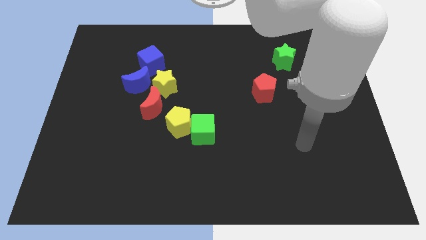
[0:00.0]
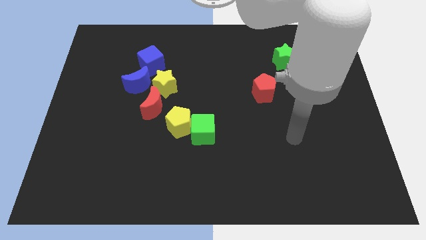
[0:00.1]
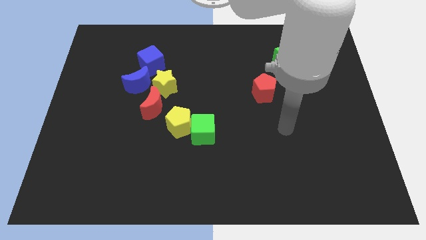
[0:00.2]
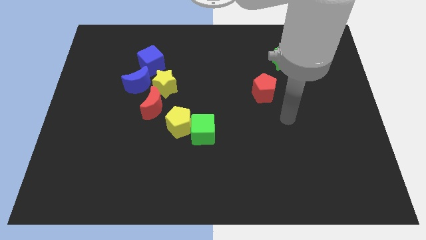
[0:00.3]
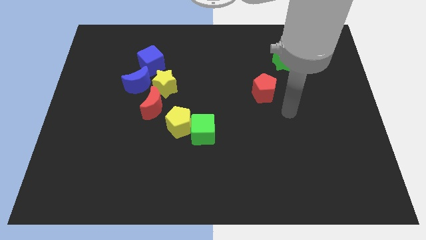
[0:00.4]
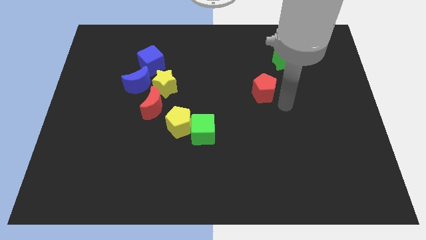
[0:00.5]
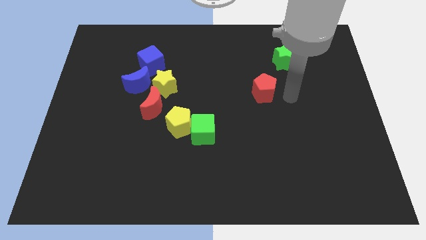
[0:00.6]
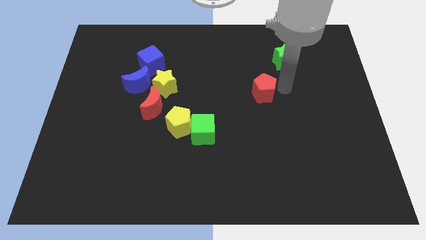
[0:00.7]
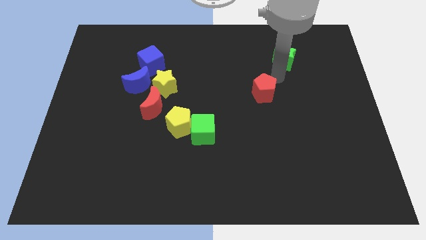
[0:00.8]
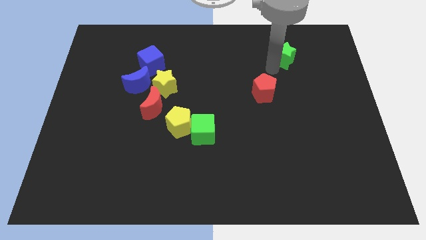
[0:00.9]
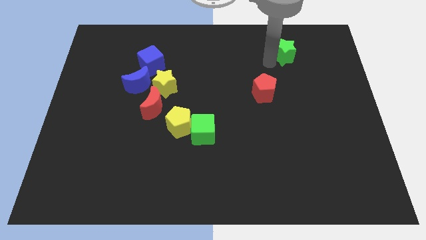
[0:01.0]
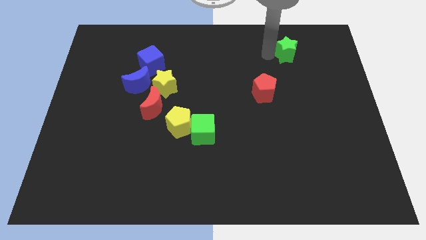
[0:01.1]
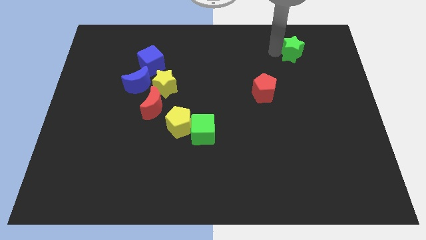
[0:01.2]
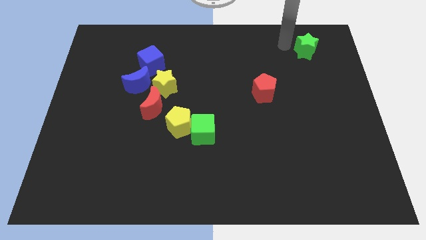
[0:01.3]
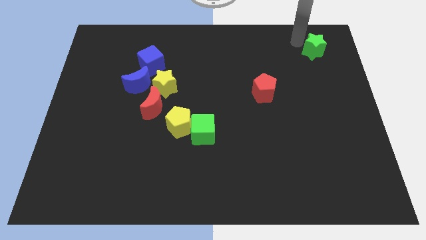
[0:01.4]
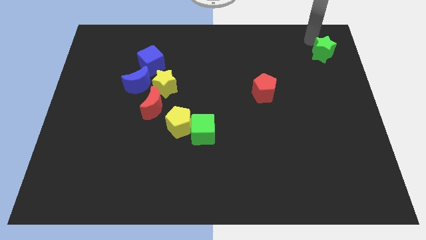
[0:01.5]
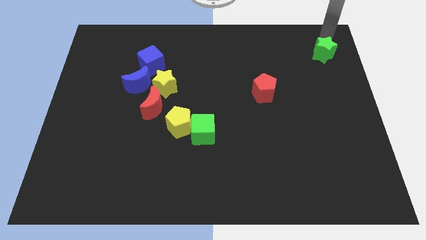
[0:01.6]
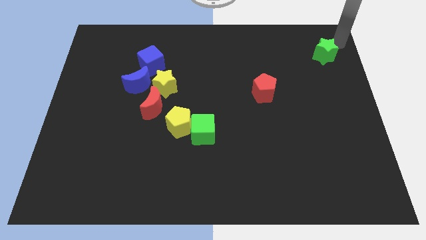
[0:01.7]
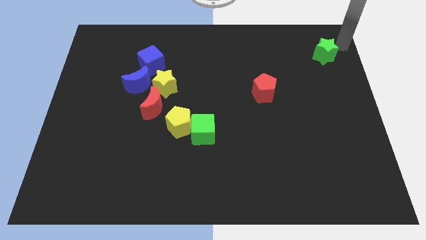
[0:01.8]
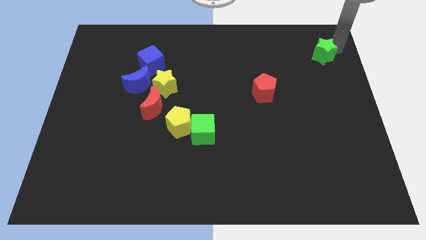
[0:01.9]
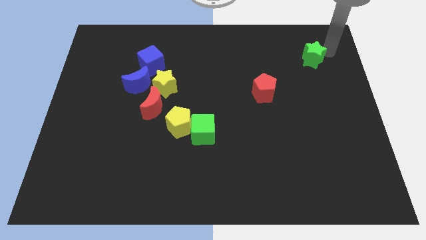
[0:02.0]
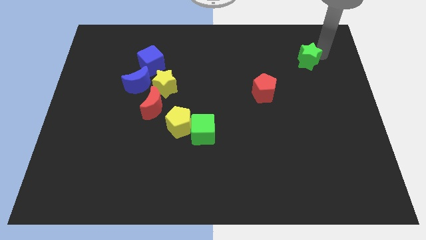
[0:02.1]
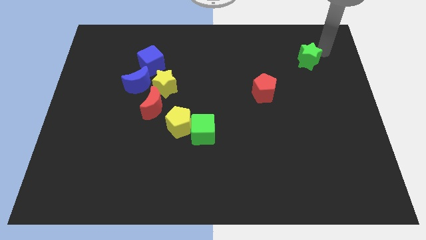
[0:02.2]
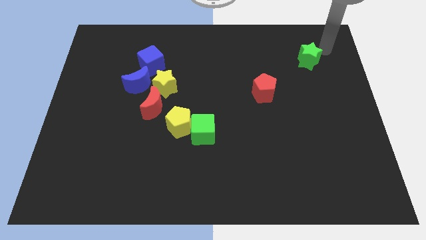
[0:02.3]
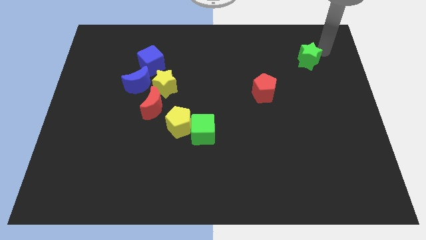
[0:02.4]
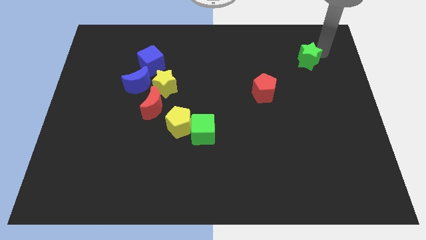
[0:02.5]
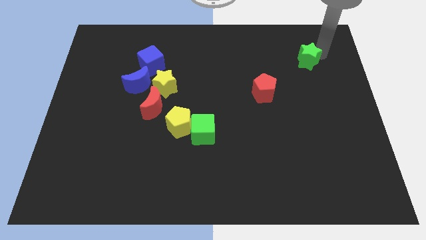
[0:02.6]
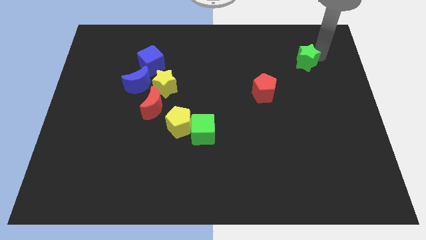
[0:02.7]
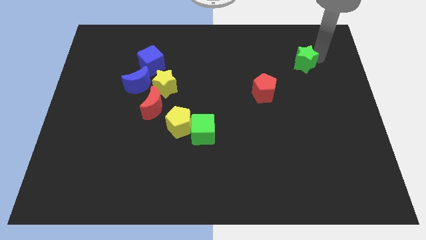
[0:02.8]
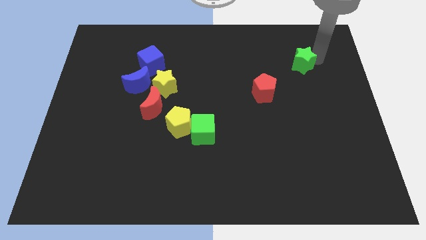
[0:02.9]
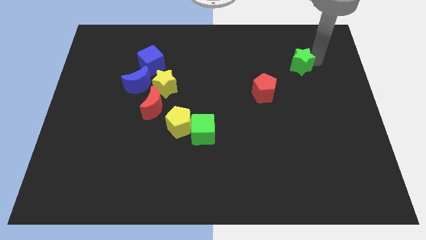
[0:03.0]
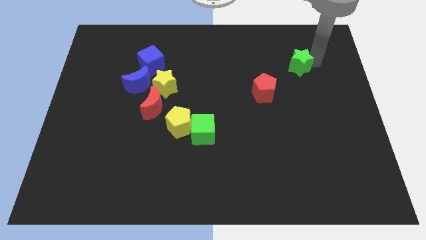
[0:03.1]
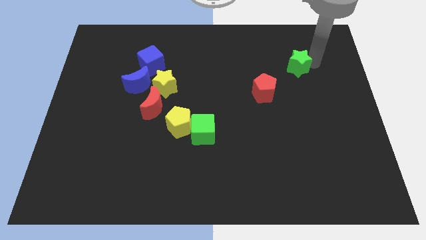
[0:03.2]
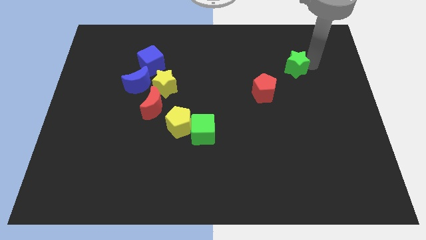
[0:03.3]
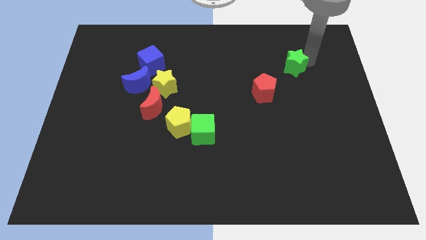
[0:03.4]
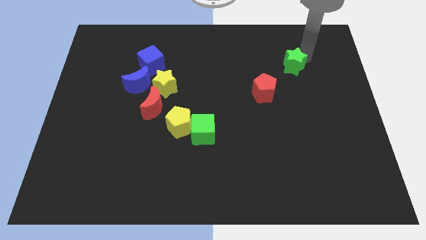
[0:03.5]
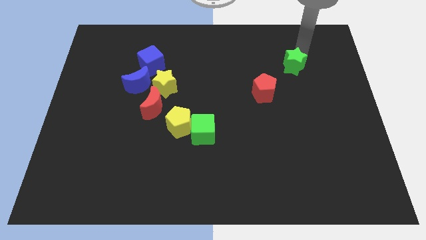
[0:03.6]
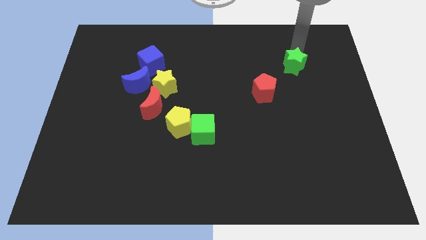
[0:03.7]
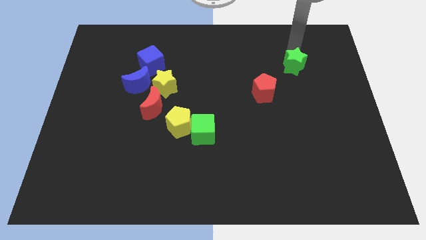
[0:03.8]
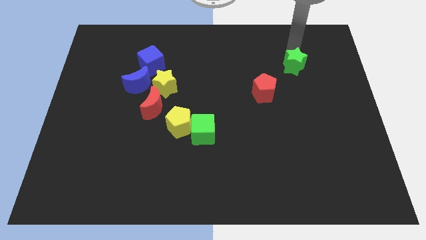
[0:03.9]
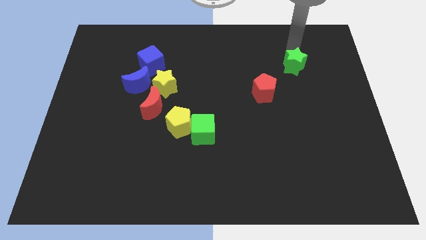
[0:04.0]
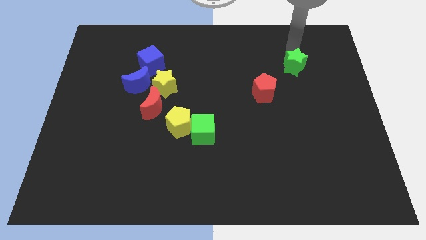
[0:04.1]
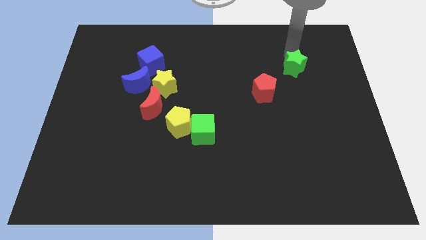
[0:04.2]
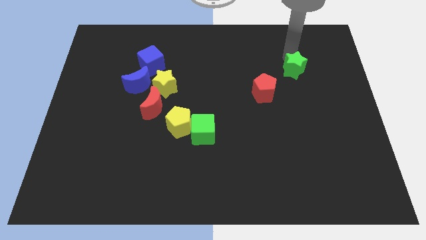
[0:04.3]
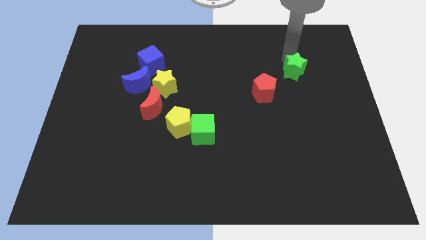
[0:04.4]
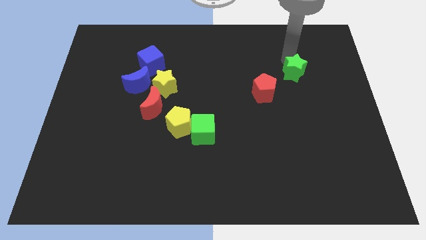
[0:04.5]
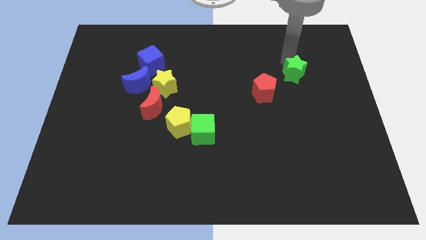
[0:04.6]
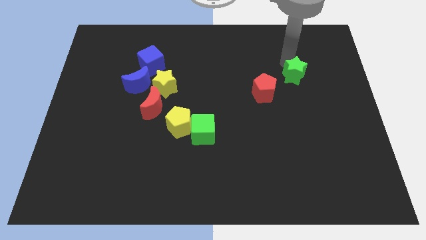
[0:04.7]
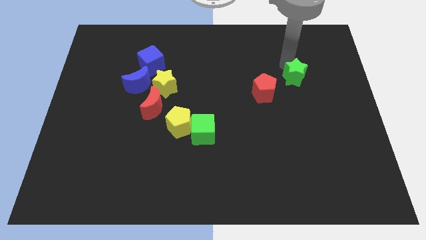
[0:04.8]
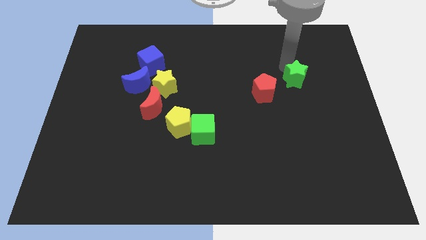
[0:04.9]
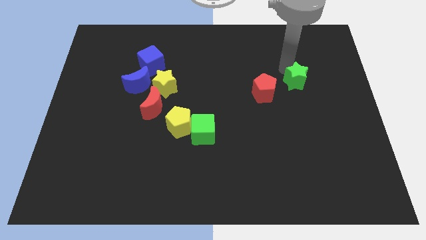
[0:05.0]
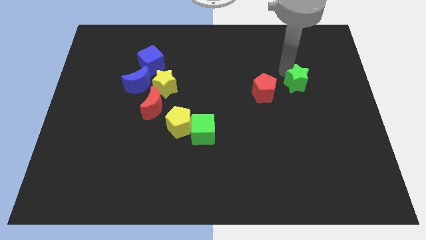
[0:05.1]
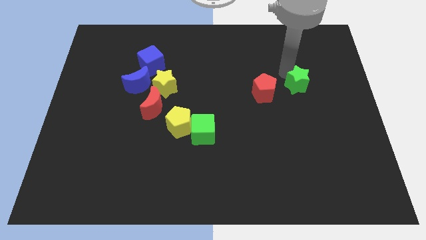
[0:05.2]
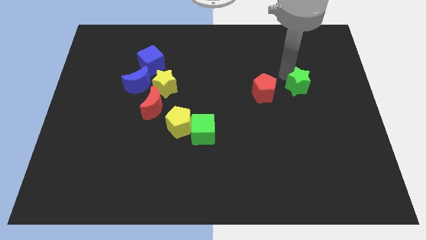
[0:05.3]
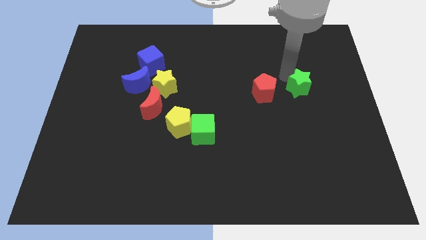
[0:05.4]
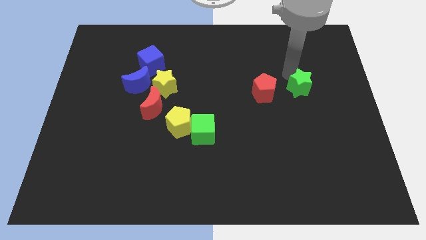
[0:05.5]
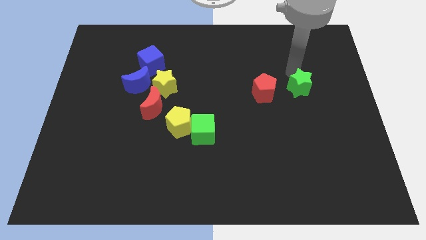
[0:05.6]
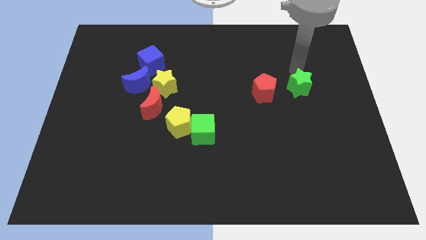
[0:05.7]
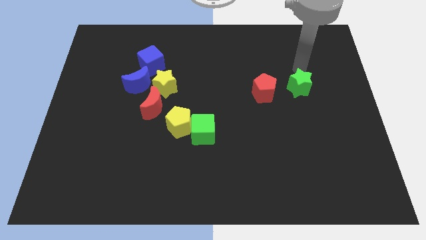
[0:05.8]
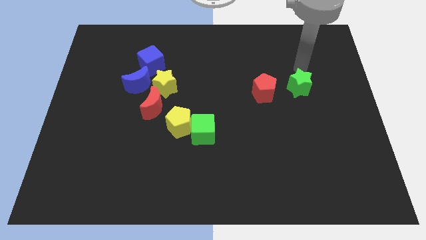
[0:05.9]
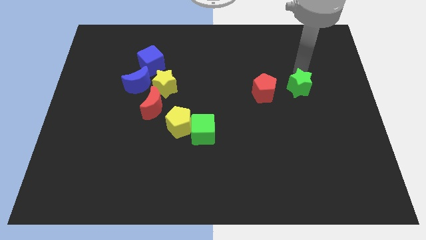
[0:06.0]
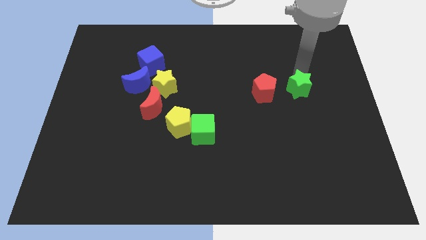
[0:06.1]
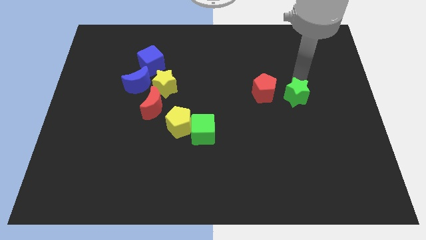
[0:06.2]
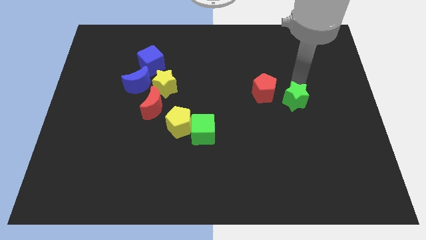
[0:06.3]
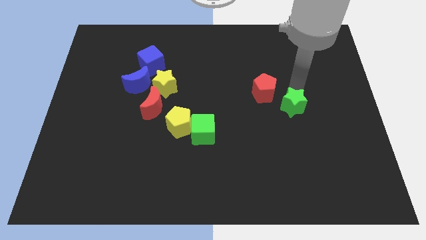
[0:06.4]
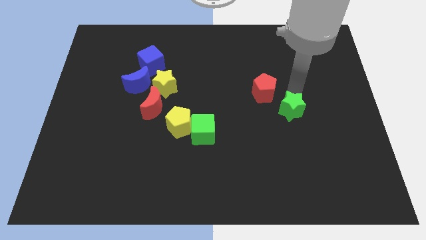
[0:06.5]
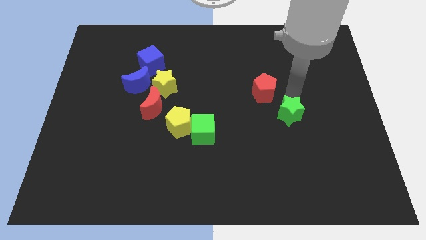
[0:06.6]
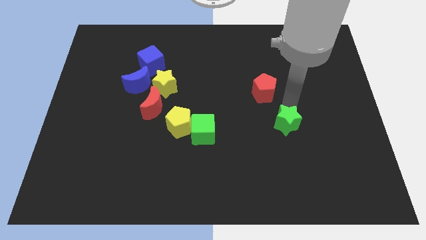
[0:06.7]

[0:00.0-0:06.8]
push the green star down

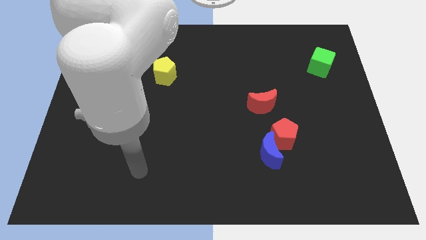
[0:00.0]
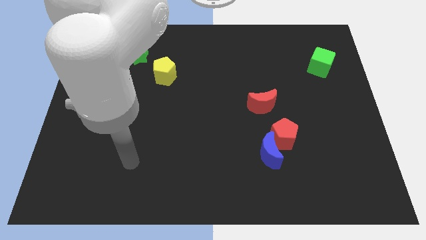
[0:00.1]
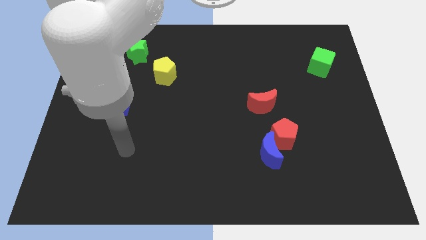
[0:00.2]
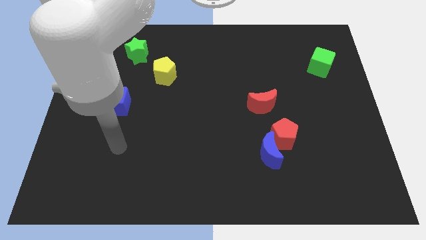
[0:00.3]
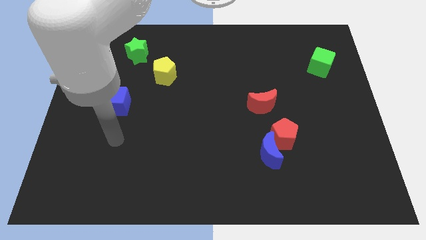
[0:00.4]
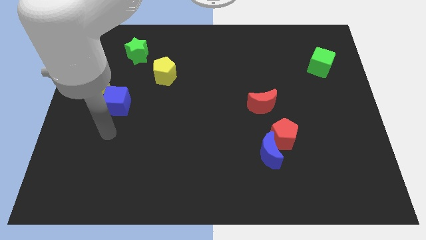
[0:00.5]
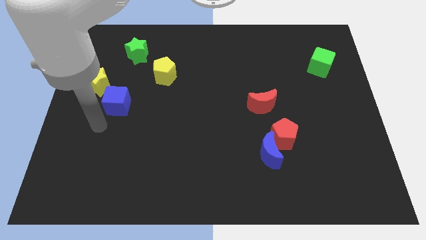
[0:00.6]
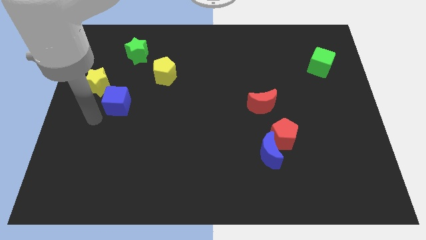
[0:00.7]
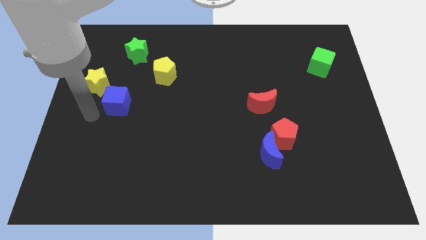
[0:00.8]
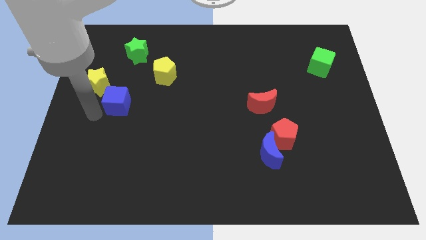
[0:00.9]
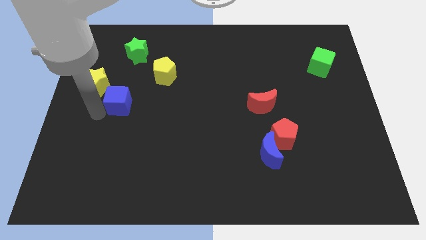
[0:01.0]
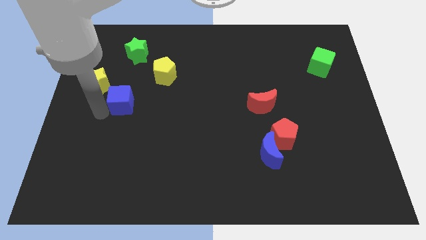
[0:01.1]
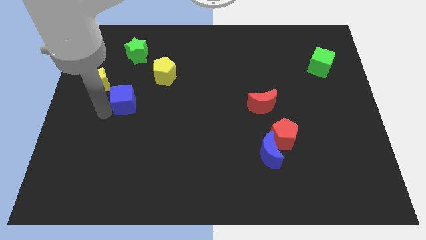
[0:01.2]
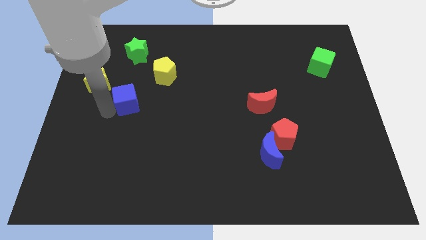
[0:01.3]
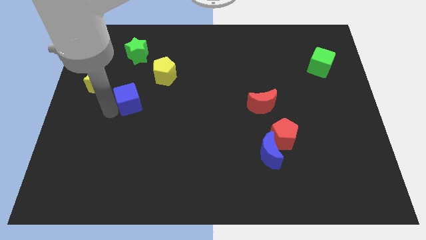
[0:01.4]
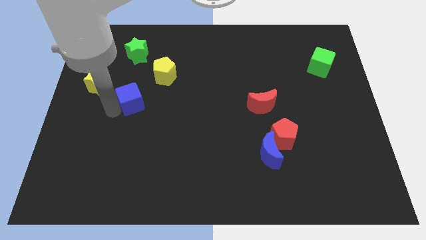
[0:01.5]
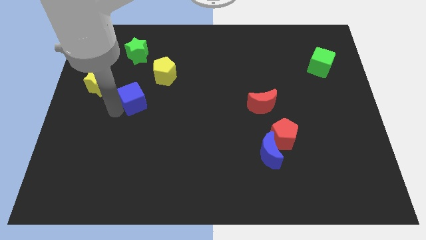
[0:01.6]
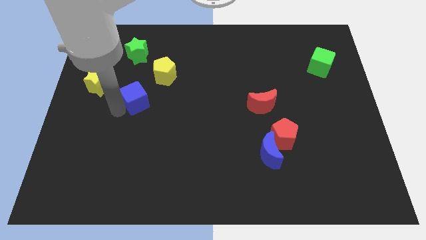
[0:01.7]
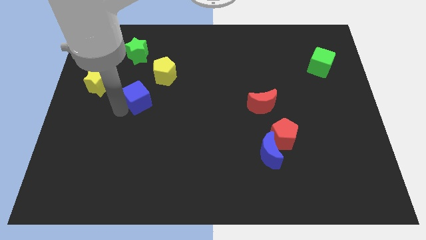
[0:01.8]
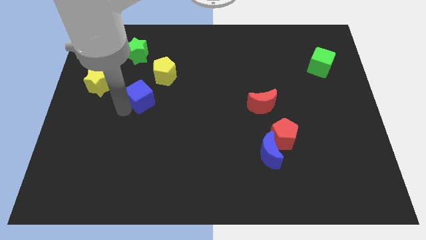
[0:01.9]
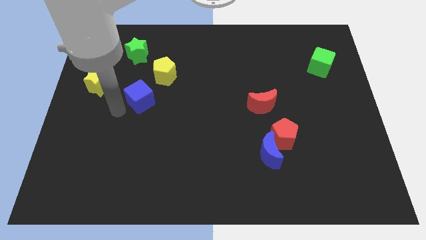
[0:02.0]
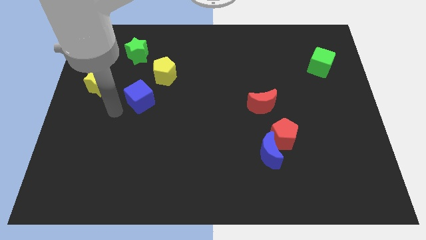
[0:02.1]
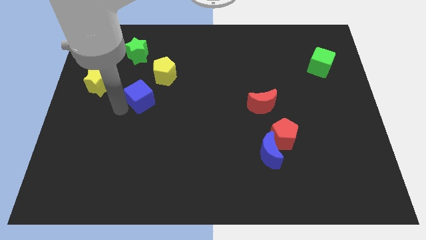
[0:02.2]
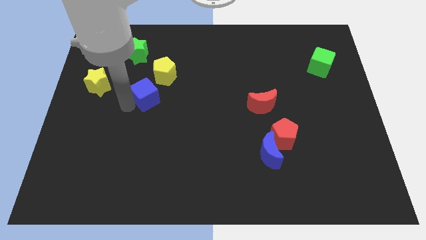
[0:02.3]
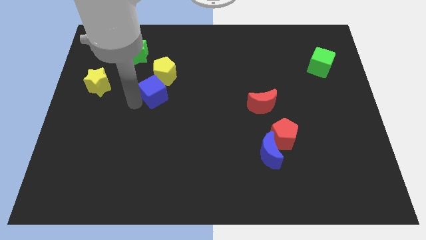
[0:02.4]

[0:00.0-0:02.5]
move the blue cube a bit diagonally upwards and right
